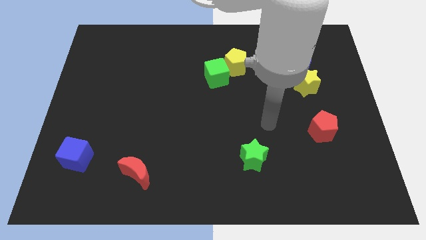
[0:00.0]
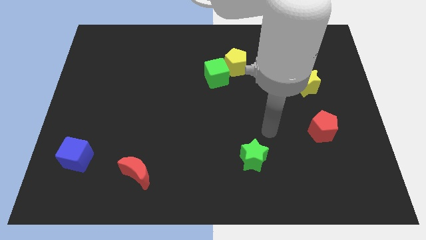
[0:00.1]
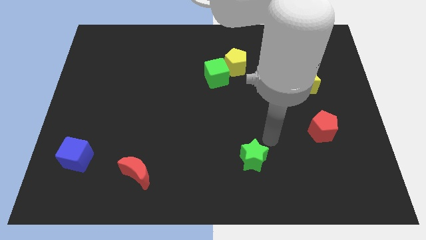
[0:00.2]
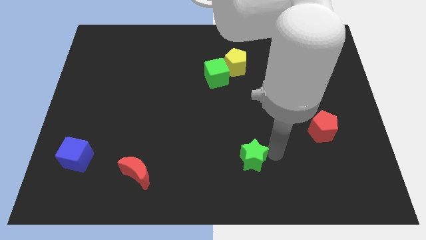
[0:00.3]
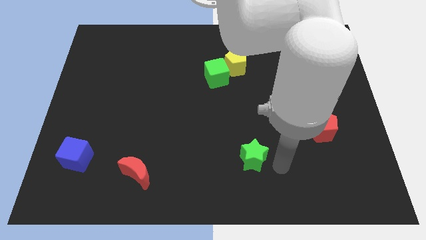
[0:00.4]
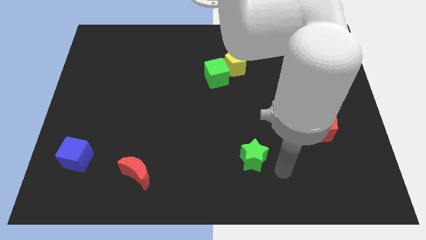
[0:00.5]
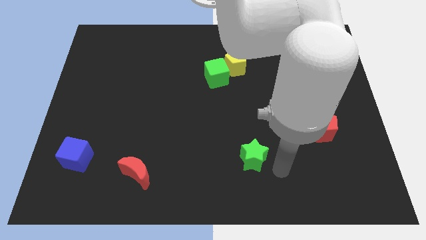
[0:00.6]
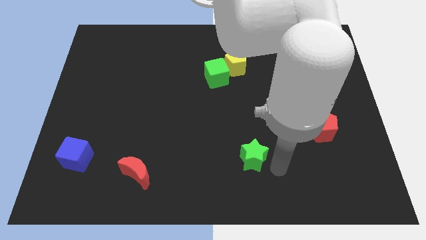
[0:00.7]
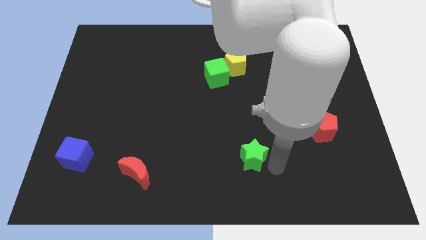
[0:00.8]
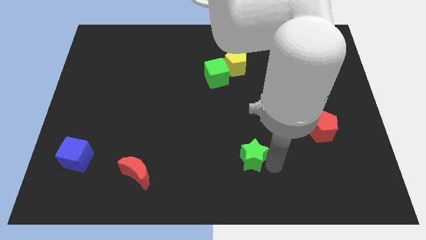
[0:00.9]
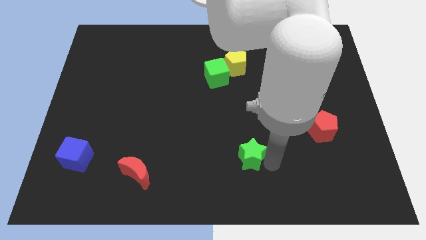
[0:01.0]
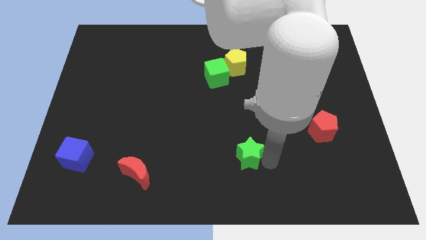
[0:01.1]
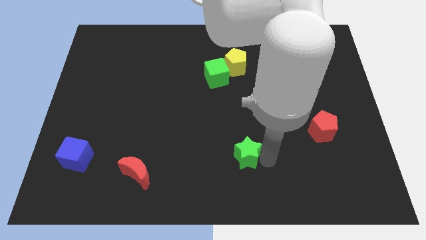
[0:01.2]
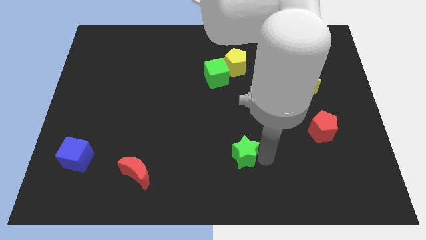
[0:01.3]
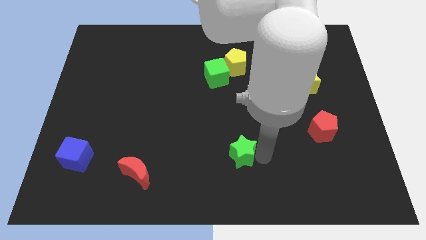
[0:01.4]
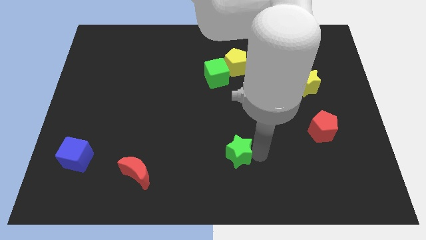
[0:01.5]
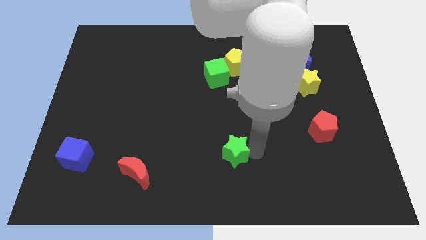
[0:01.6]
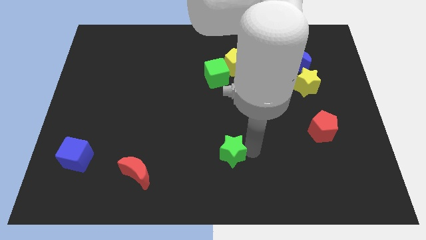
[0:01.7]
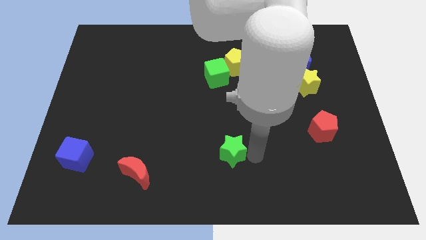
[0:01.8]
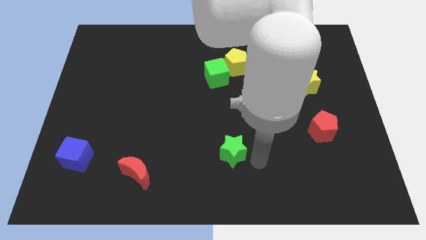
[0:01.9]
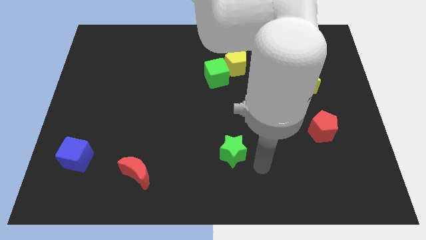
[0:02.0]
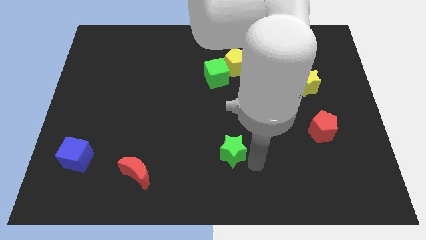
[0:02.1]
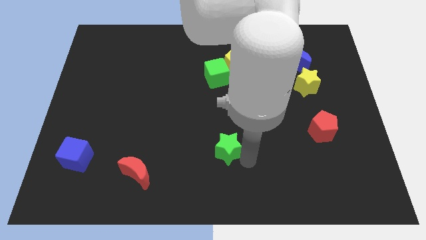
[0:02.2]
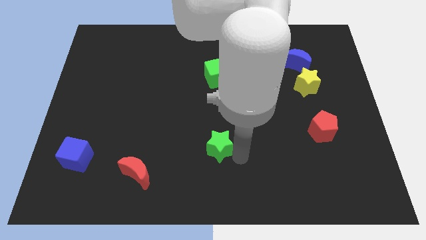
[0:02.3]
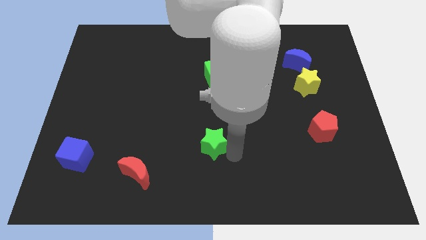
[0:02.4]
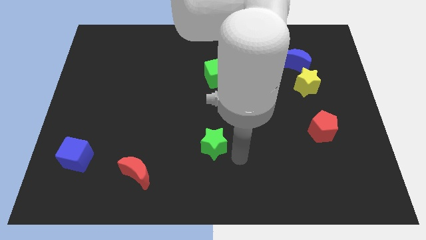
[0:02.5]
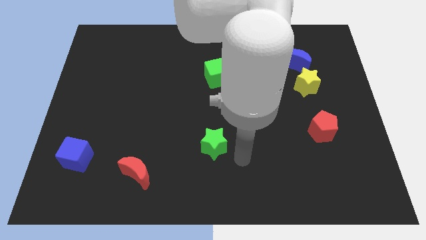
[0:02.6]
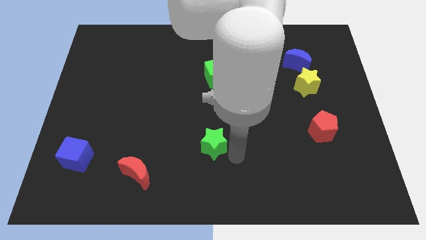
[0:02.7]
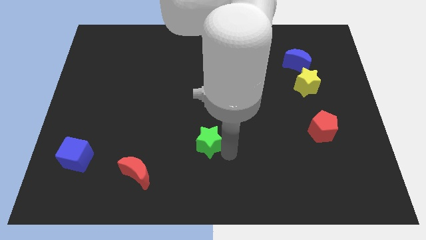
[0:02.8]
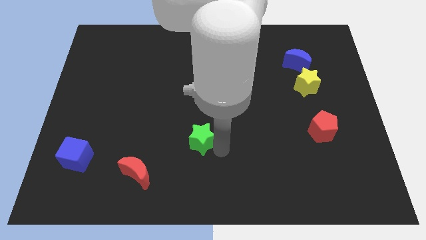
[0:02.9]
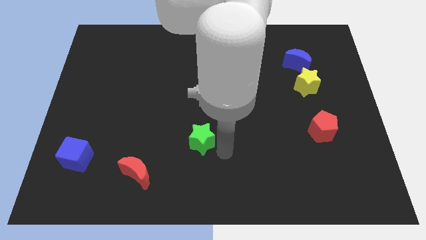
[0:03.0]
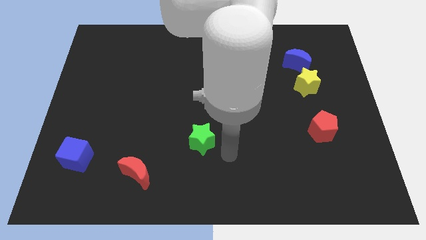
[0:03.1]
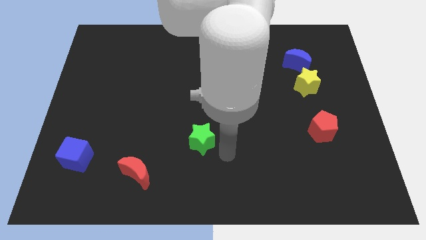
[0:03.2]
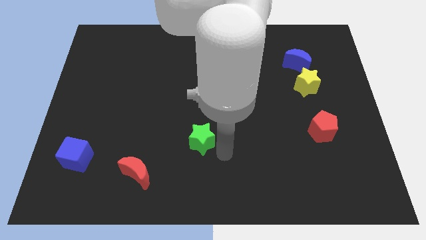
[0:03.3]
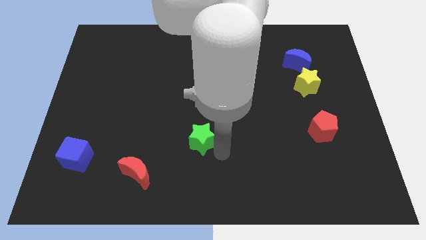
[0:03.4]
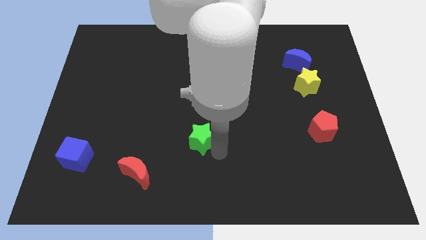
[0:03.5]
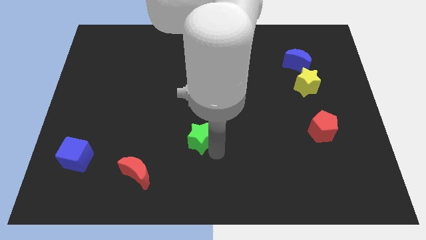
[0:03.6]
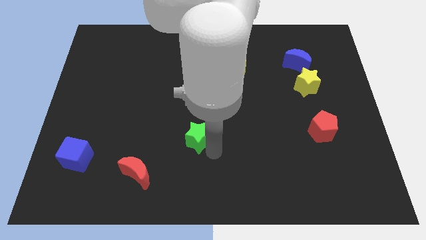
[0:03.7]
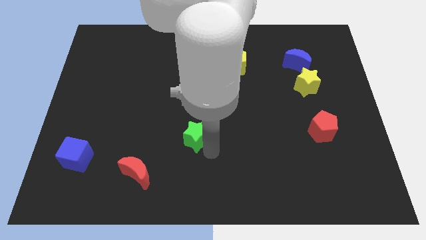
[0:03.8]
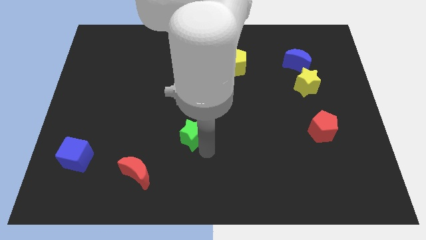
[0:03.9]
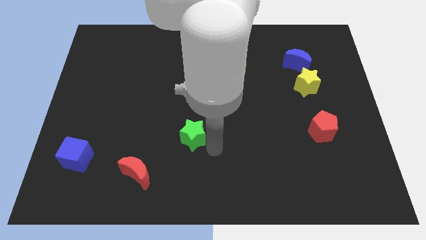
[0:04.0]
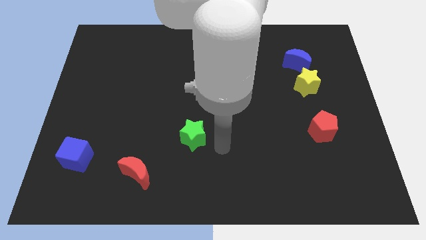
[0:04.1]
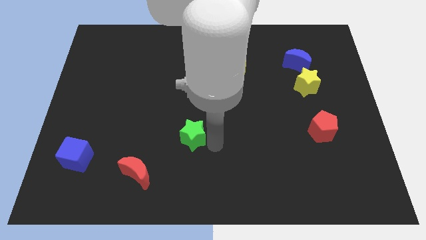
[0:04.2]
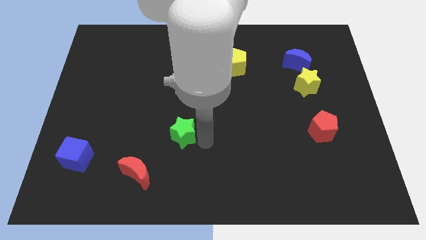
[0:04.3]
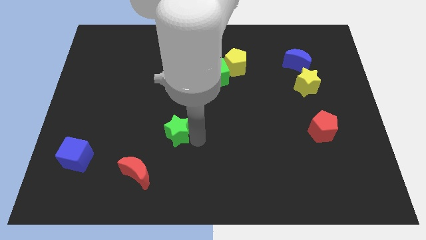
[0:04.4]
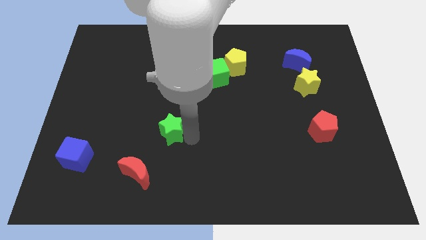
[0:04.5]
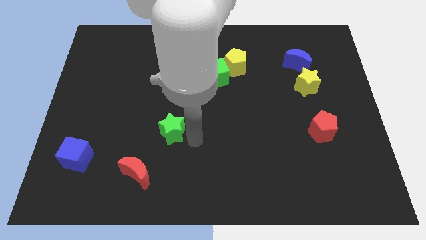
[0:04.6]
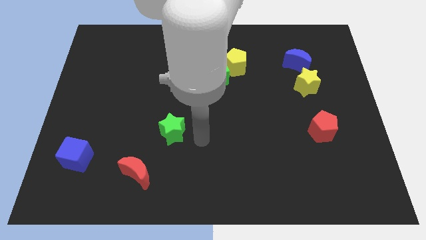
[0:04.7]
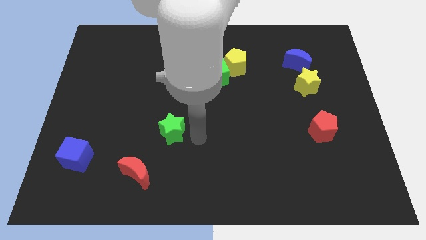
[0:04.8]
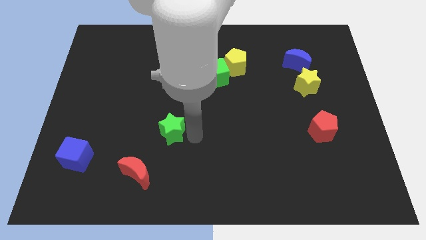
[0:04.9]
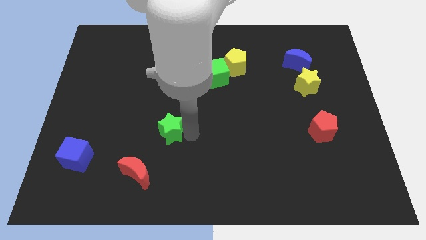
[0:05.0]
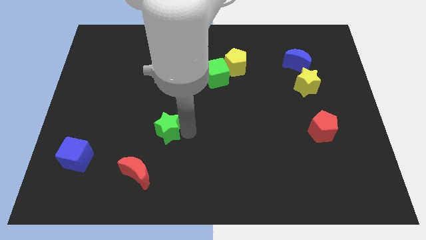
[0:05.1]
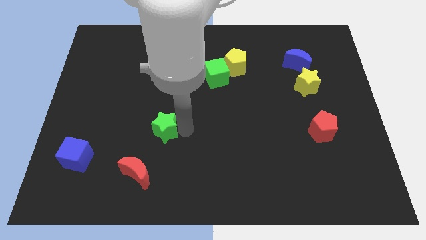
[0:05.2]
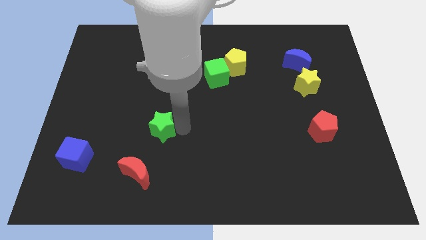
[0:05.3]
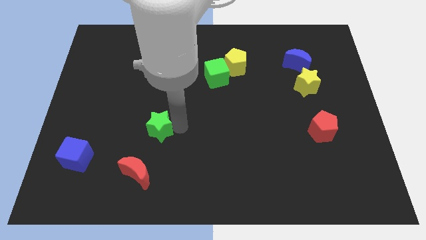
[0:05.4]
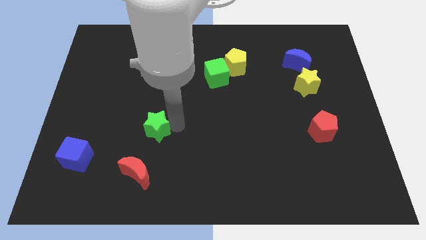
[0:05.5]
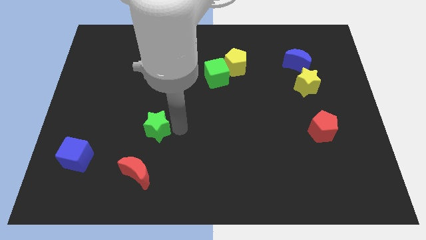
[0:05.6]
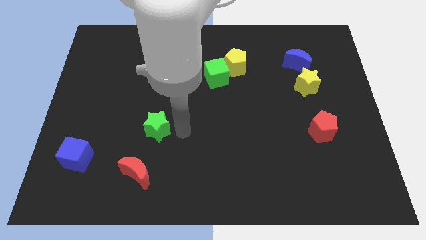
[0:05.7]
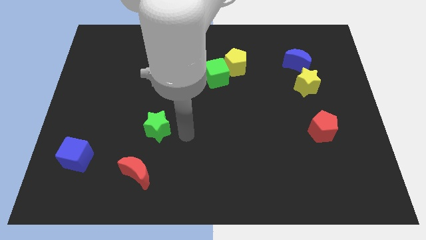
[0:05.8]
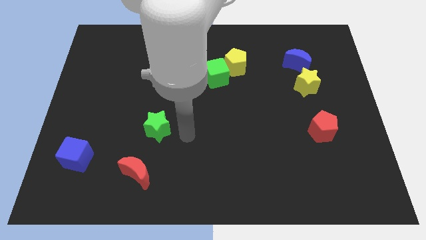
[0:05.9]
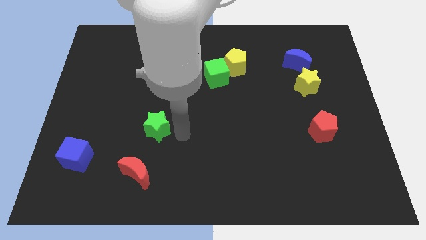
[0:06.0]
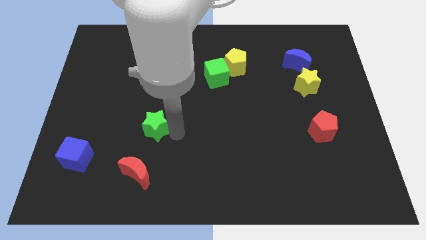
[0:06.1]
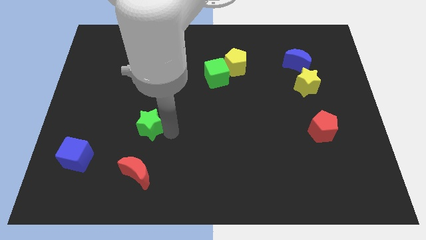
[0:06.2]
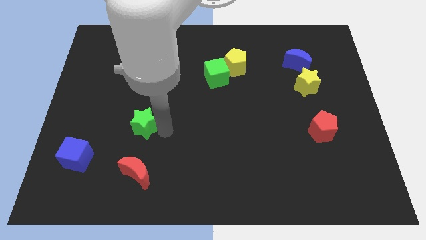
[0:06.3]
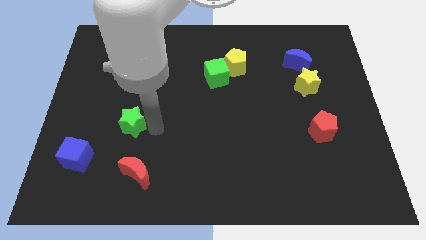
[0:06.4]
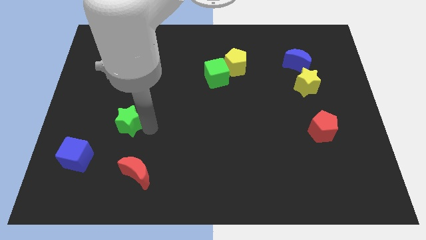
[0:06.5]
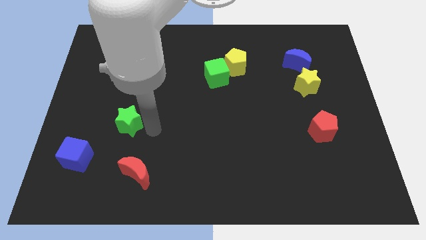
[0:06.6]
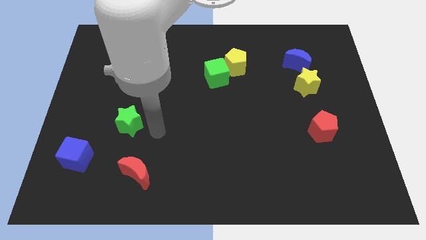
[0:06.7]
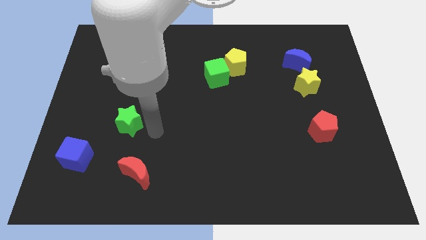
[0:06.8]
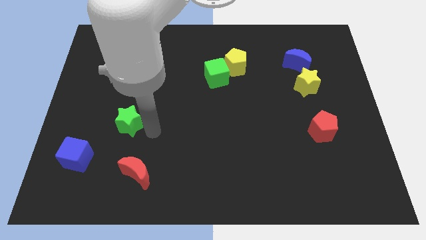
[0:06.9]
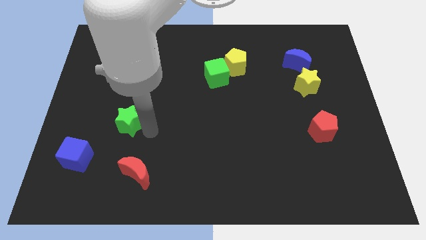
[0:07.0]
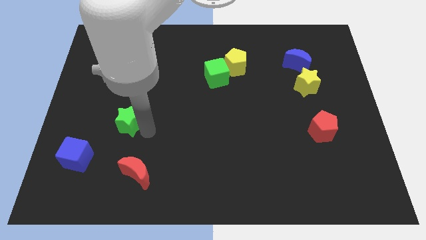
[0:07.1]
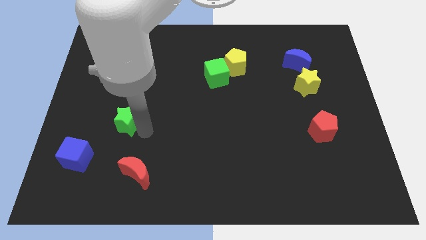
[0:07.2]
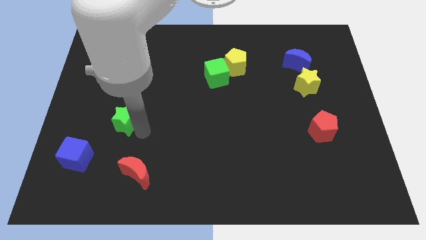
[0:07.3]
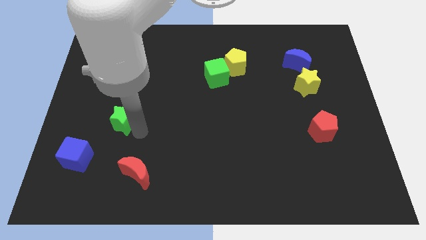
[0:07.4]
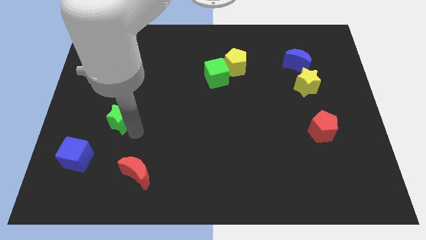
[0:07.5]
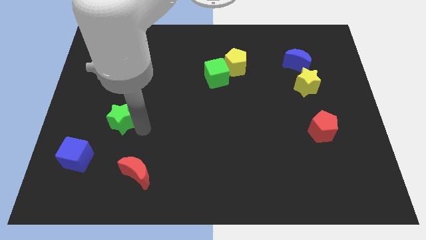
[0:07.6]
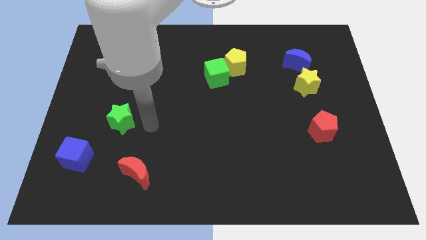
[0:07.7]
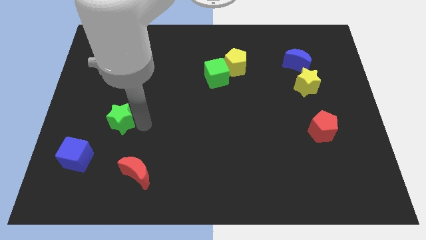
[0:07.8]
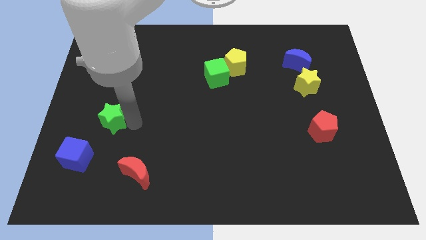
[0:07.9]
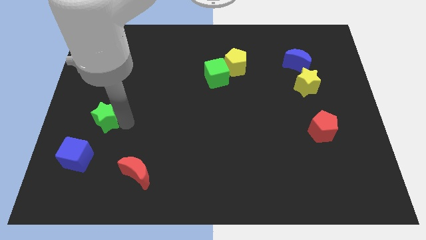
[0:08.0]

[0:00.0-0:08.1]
move the green star to the top side of the blue cube
